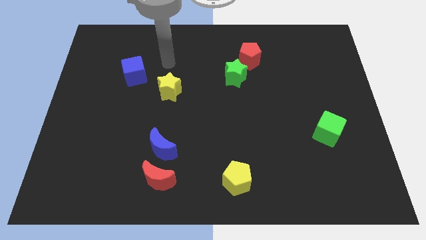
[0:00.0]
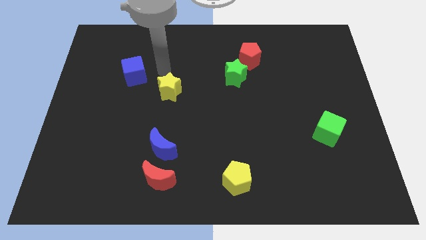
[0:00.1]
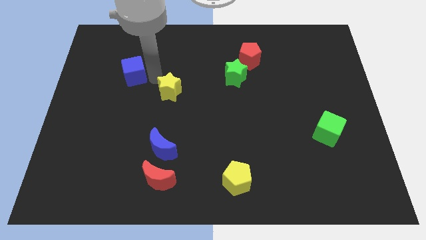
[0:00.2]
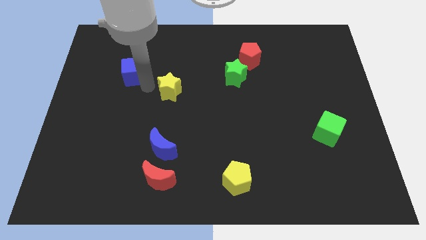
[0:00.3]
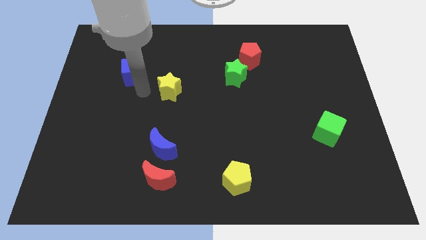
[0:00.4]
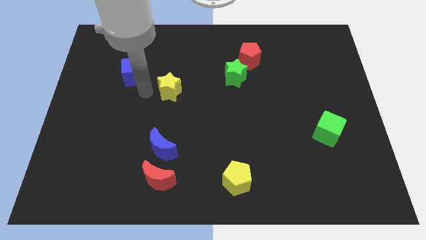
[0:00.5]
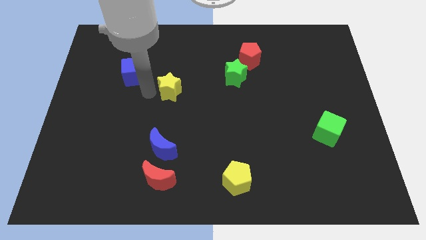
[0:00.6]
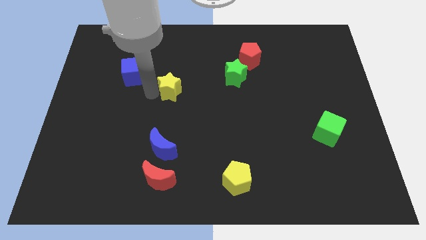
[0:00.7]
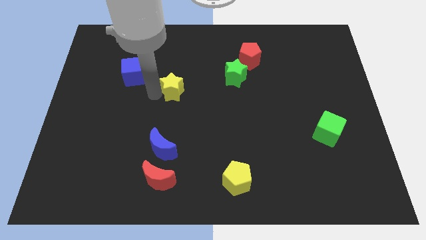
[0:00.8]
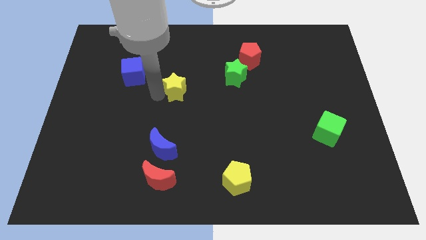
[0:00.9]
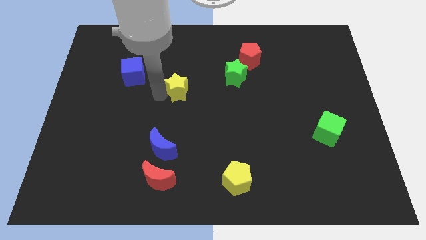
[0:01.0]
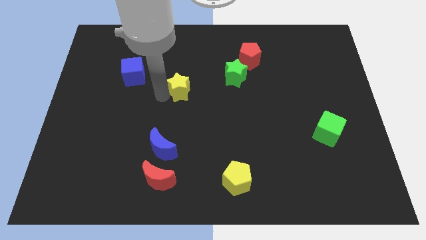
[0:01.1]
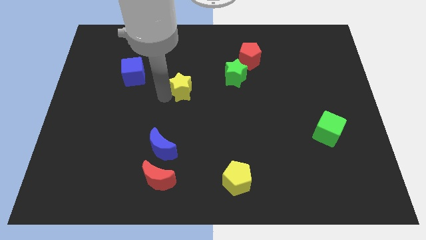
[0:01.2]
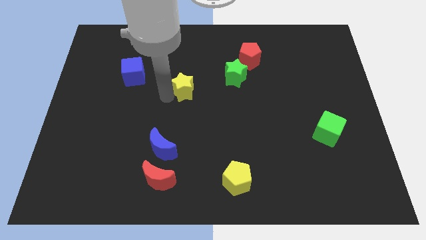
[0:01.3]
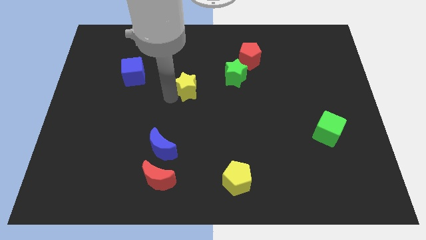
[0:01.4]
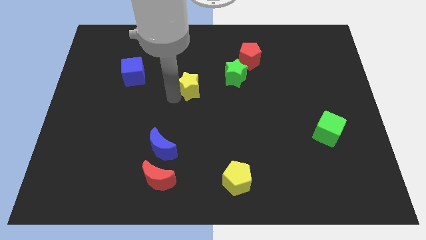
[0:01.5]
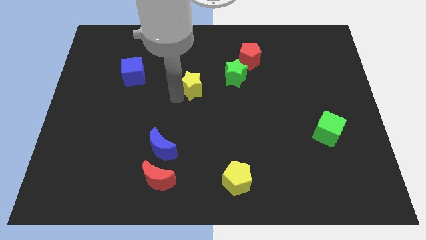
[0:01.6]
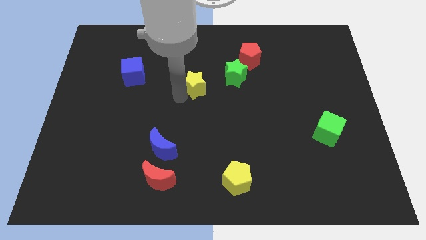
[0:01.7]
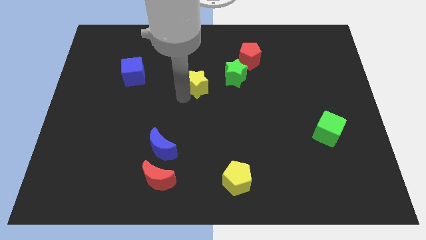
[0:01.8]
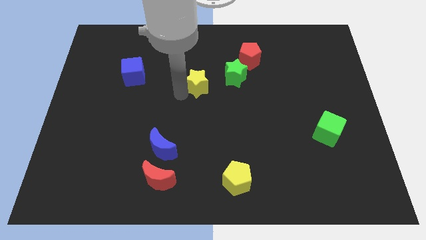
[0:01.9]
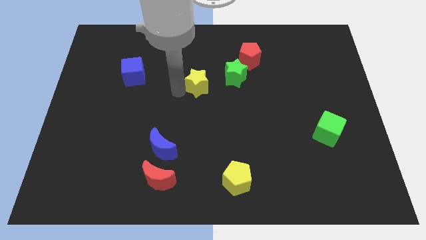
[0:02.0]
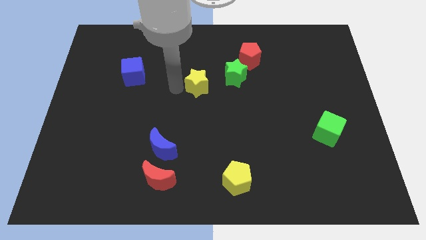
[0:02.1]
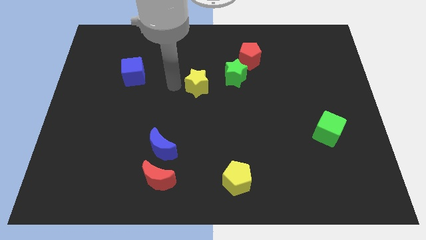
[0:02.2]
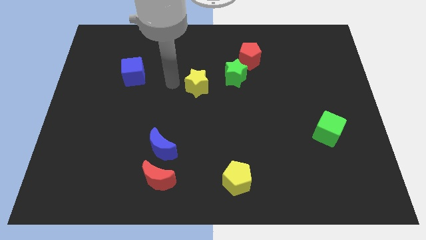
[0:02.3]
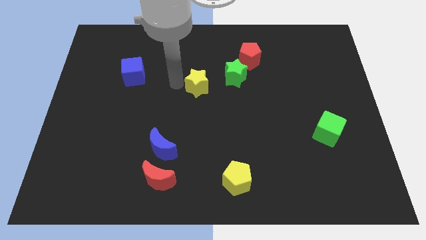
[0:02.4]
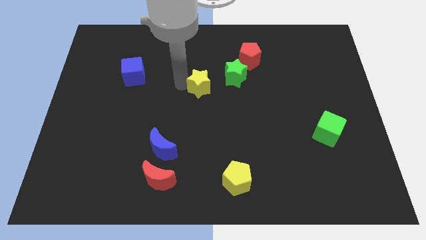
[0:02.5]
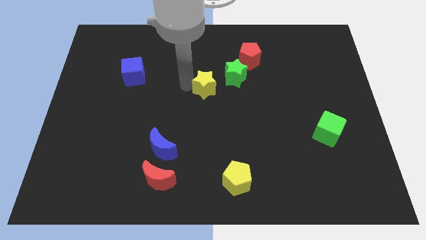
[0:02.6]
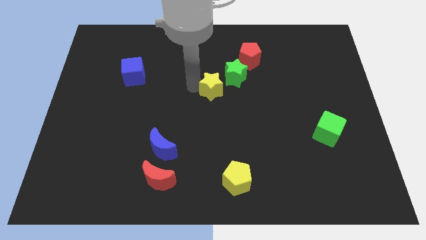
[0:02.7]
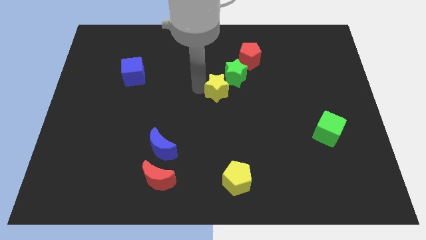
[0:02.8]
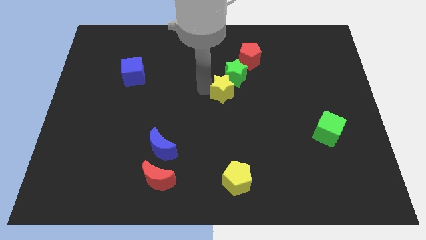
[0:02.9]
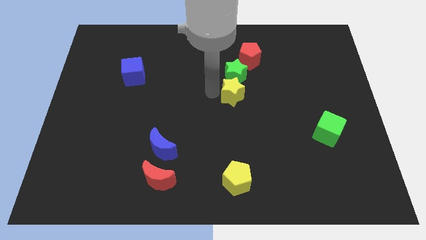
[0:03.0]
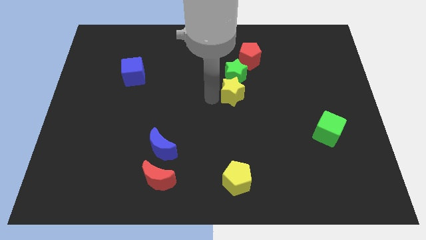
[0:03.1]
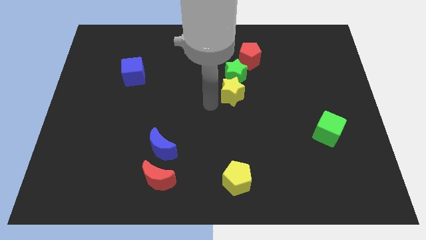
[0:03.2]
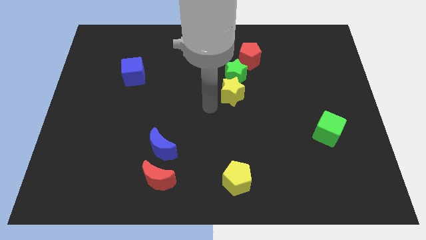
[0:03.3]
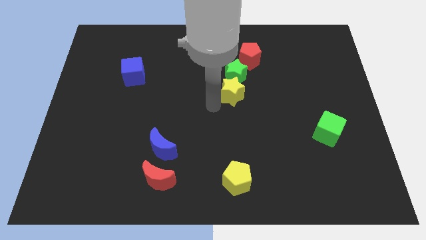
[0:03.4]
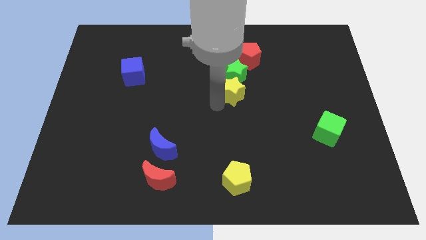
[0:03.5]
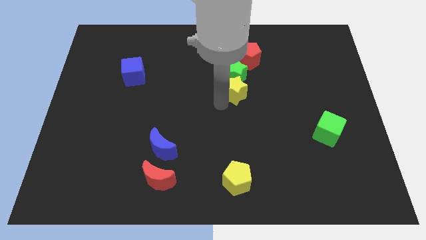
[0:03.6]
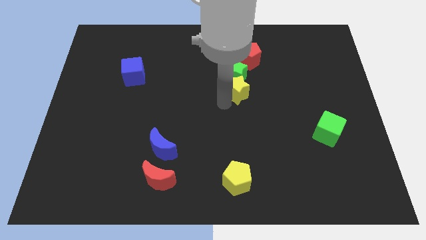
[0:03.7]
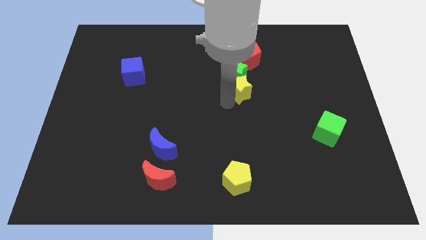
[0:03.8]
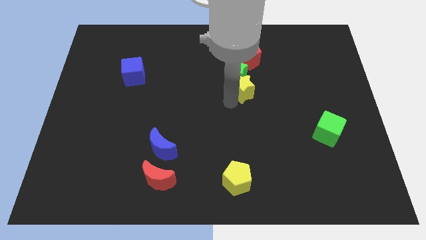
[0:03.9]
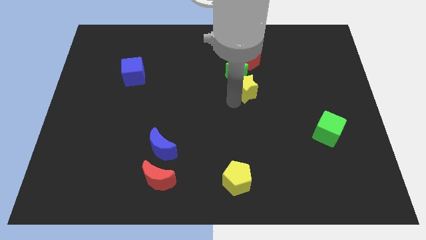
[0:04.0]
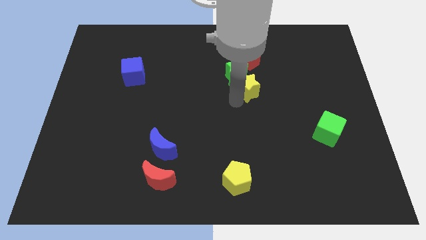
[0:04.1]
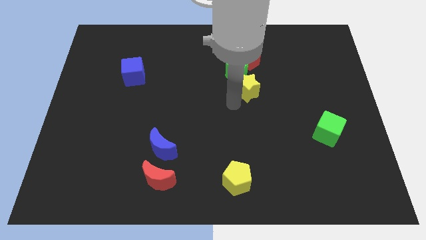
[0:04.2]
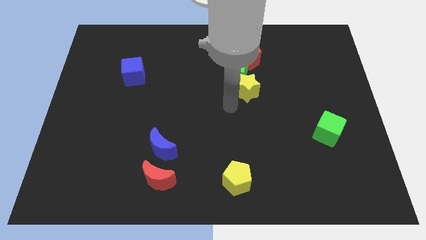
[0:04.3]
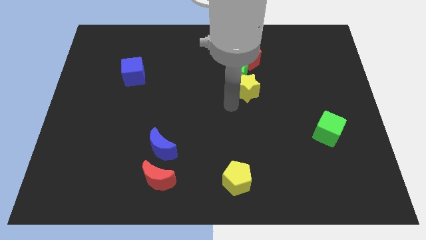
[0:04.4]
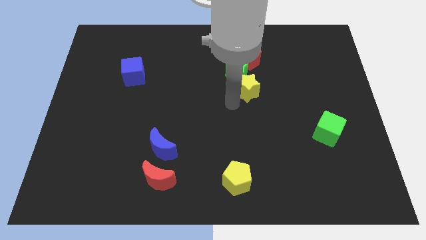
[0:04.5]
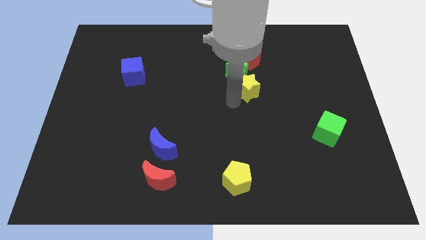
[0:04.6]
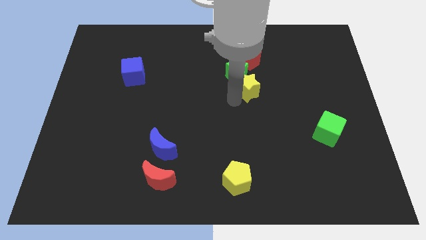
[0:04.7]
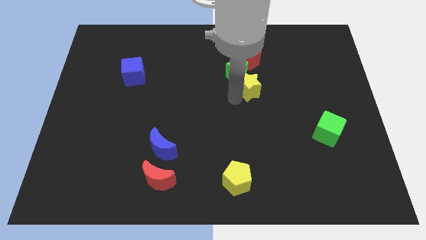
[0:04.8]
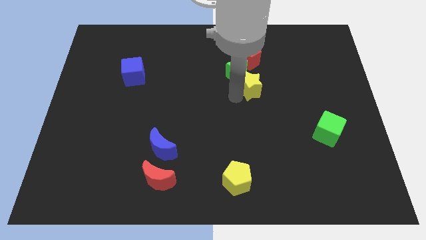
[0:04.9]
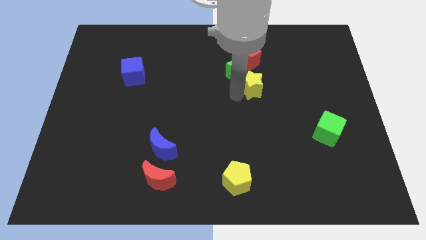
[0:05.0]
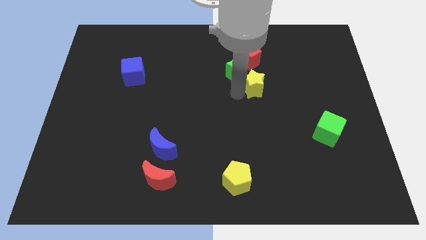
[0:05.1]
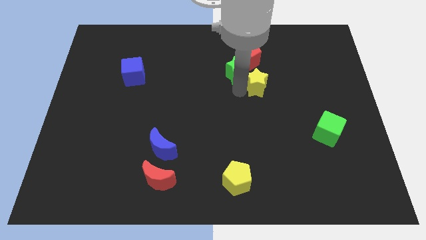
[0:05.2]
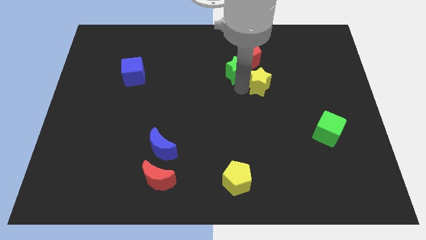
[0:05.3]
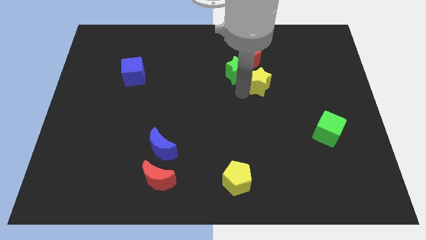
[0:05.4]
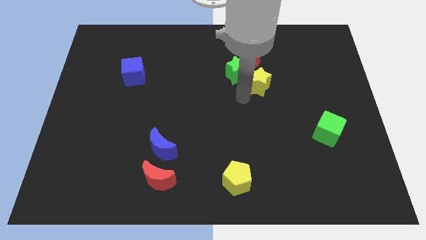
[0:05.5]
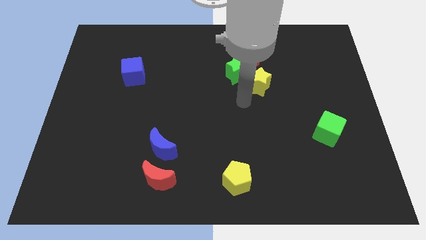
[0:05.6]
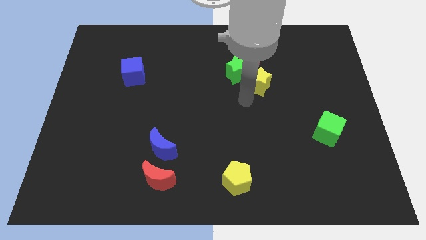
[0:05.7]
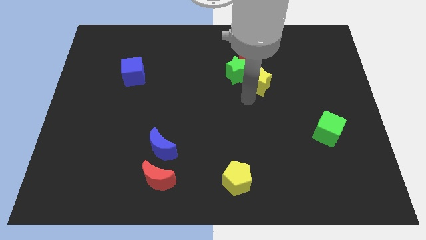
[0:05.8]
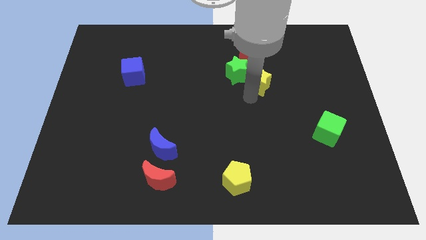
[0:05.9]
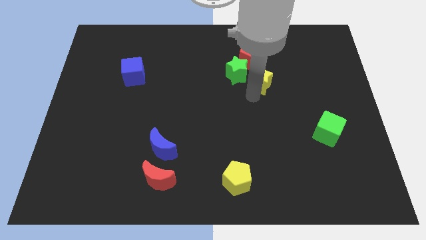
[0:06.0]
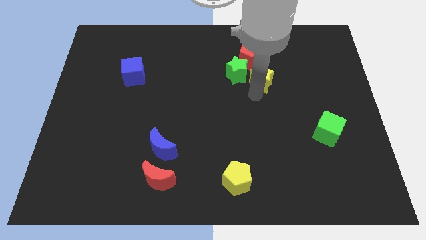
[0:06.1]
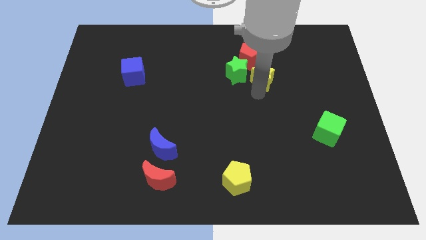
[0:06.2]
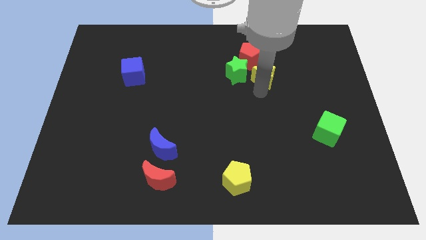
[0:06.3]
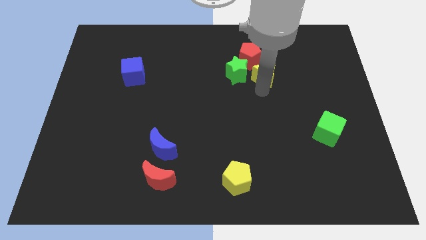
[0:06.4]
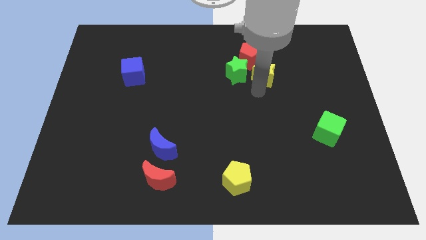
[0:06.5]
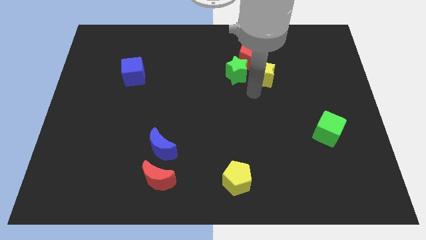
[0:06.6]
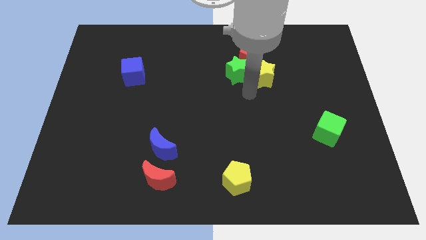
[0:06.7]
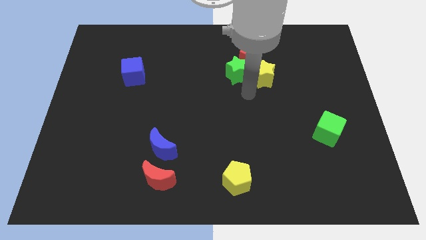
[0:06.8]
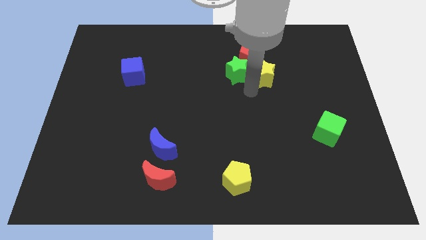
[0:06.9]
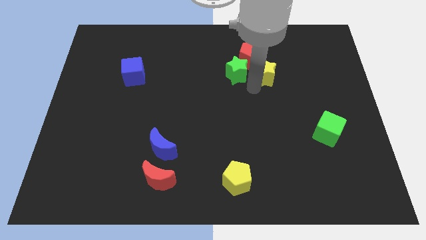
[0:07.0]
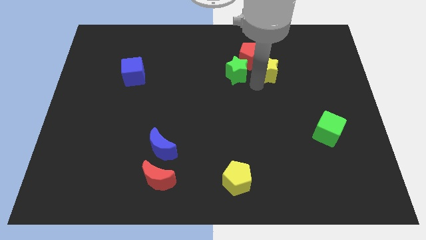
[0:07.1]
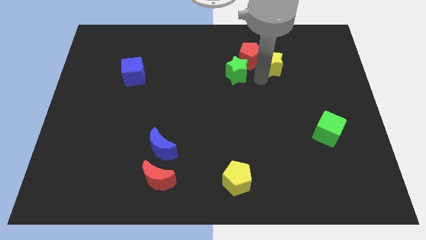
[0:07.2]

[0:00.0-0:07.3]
put the yellow star to the right side of the red pentagon

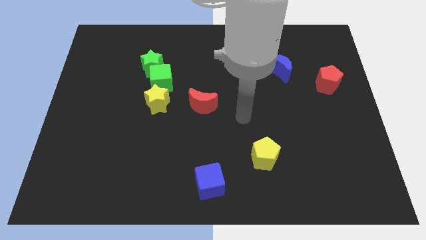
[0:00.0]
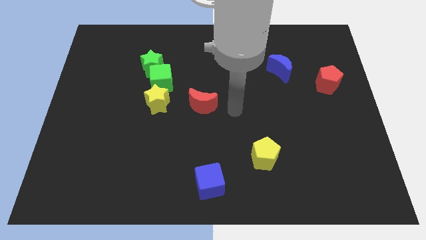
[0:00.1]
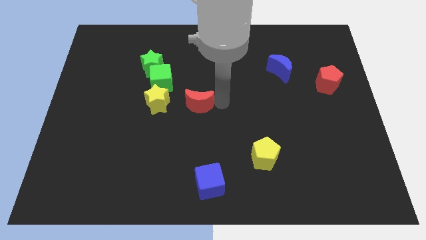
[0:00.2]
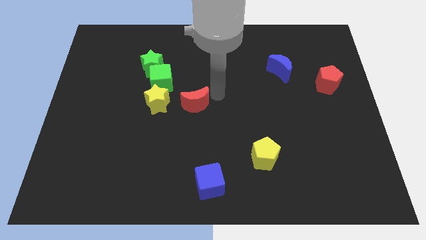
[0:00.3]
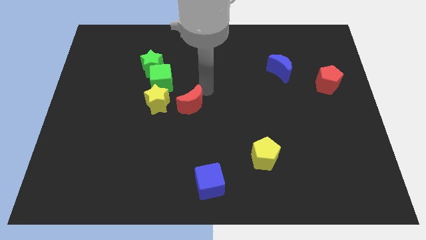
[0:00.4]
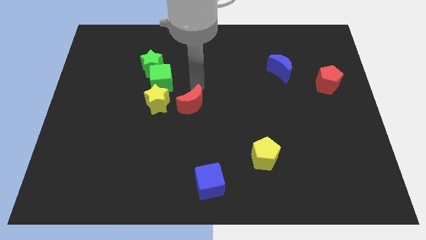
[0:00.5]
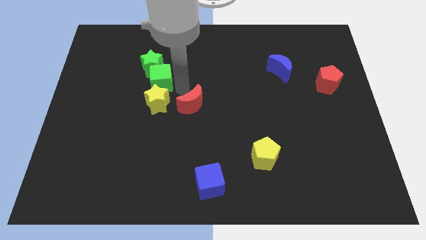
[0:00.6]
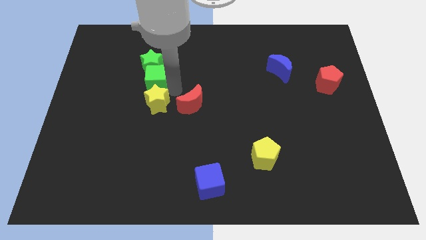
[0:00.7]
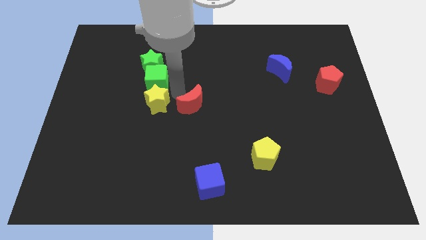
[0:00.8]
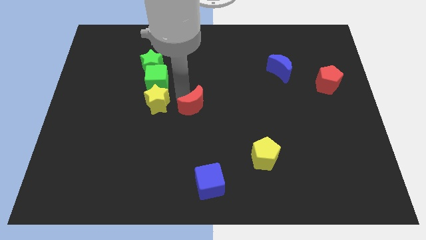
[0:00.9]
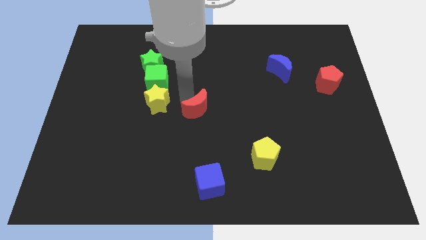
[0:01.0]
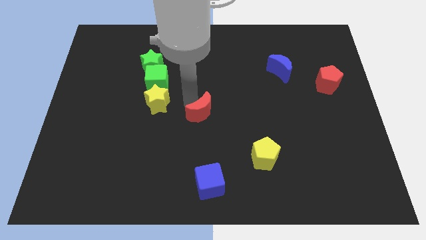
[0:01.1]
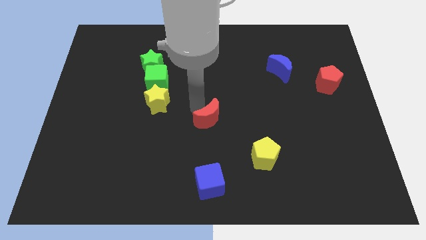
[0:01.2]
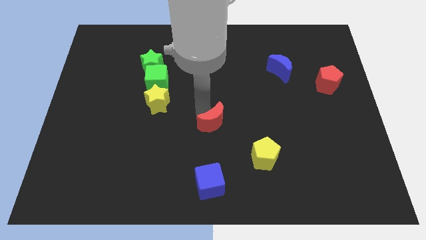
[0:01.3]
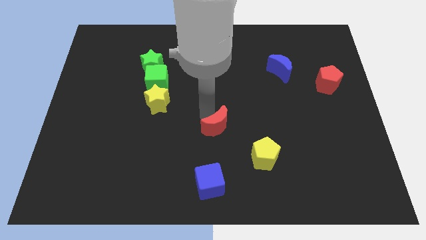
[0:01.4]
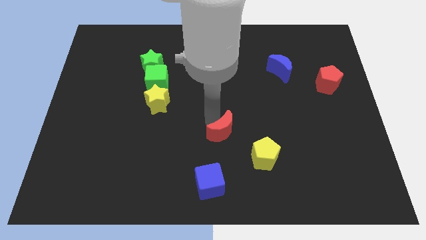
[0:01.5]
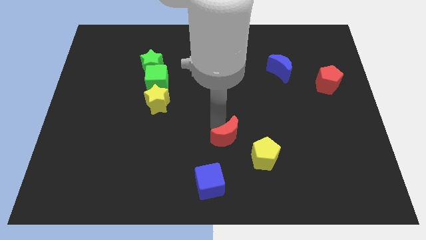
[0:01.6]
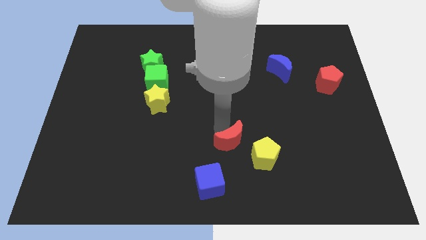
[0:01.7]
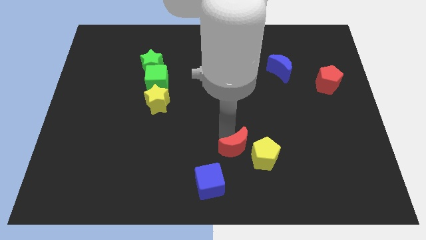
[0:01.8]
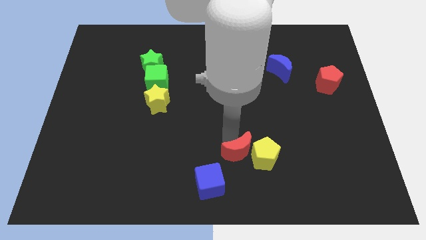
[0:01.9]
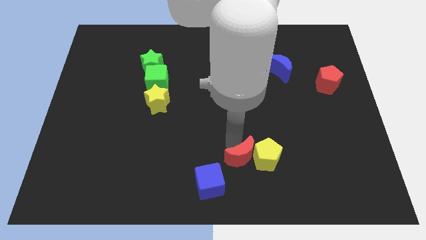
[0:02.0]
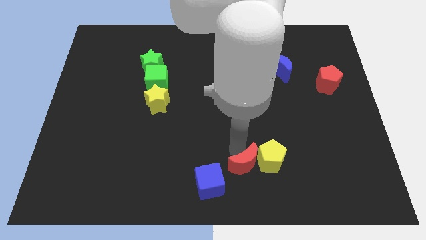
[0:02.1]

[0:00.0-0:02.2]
put the red moon right of the blue cube
